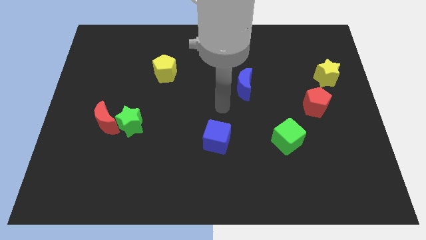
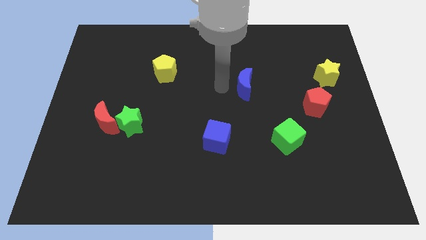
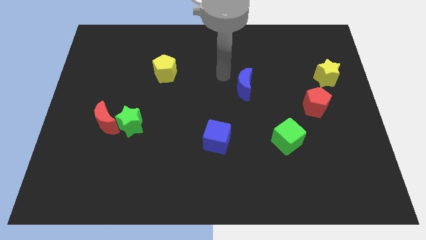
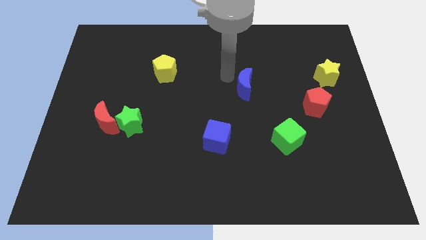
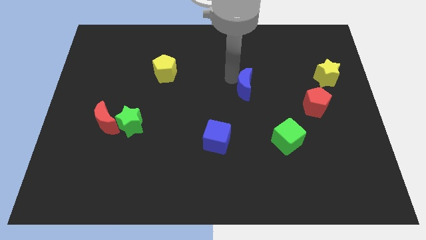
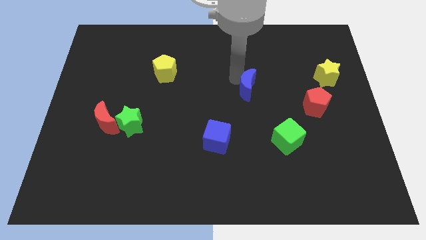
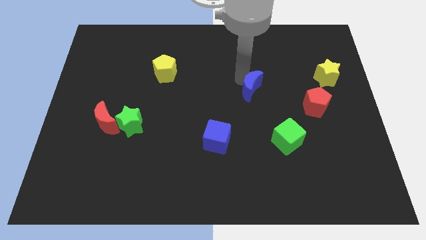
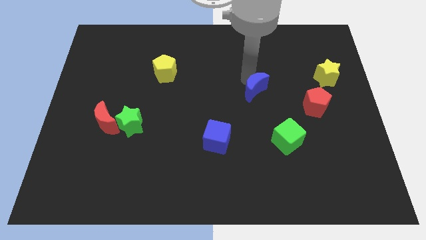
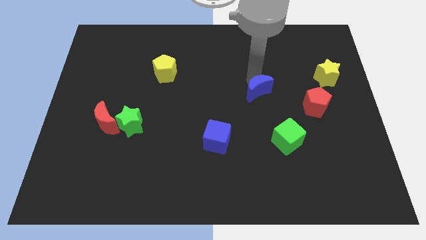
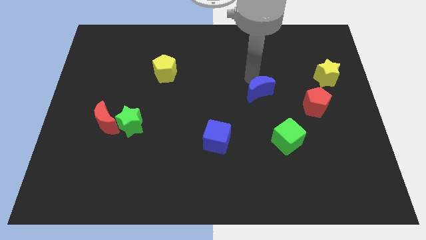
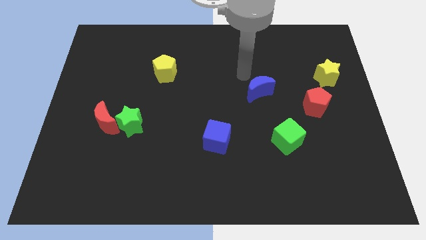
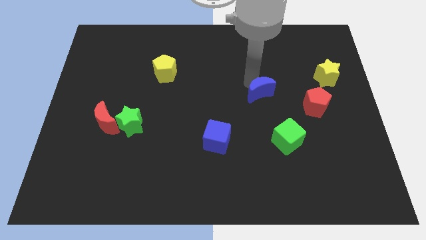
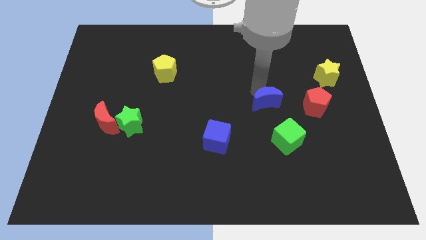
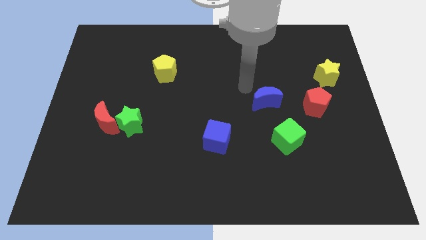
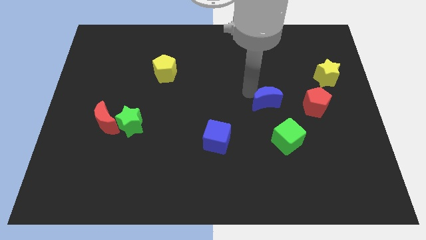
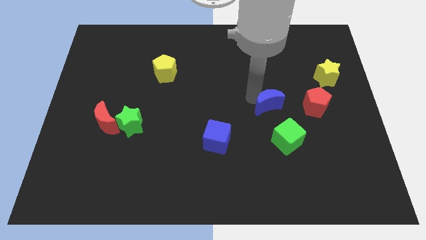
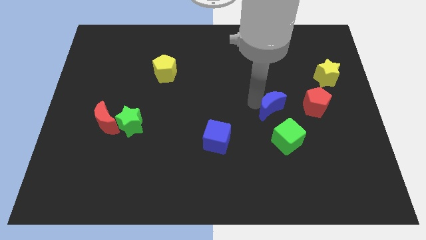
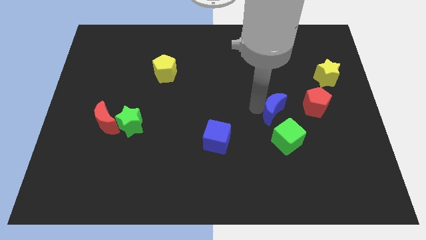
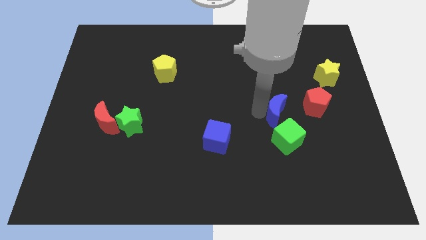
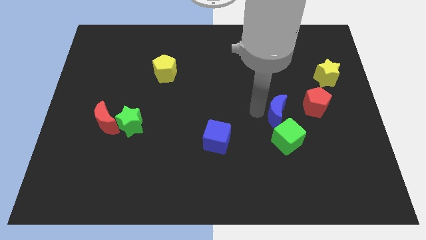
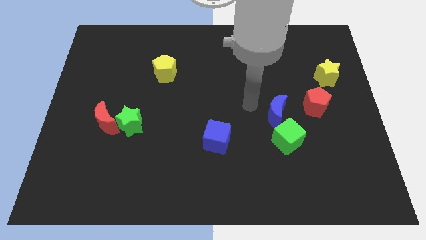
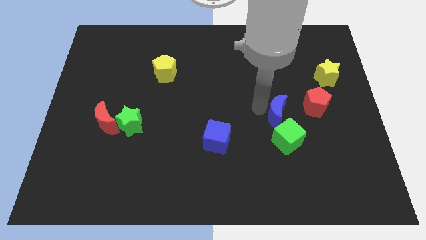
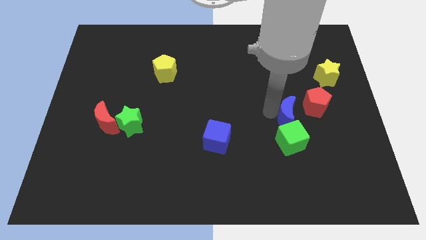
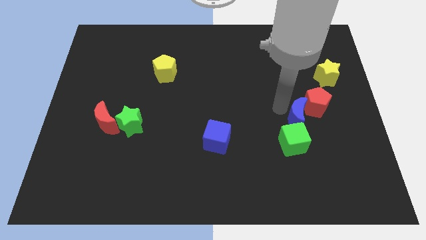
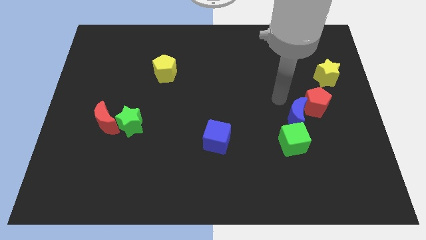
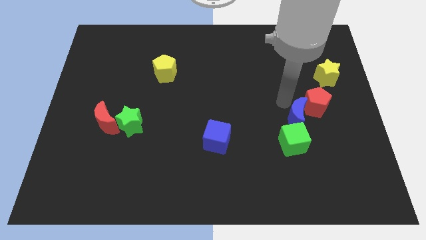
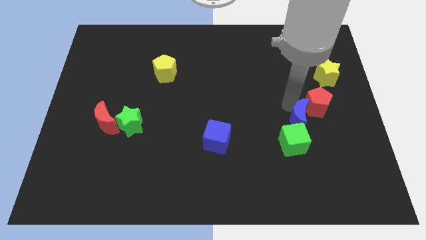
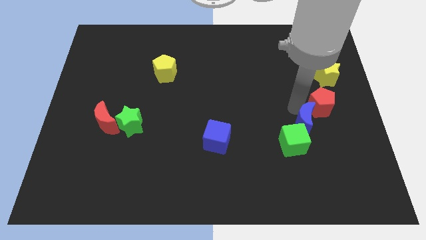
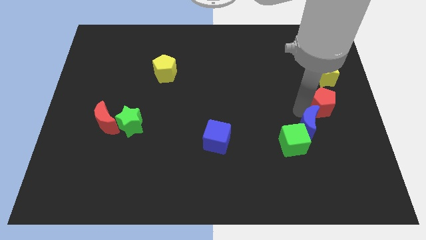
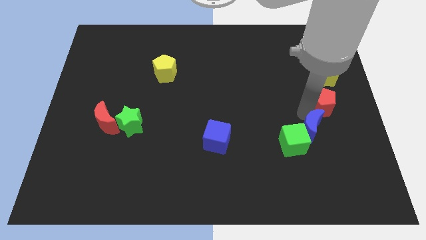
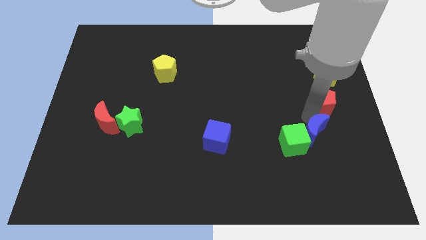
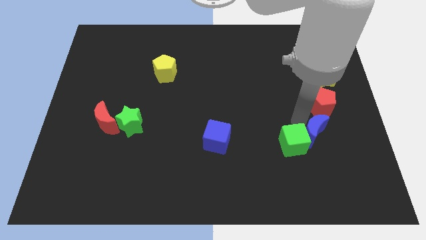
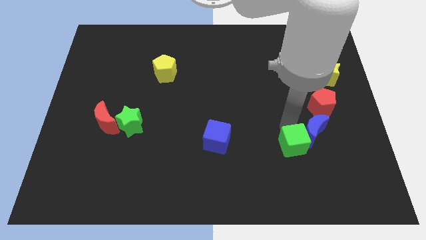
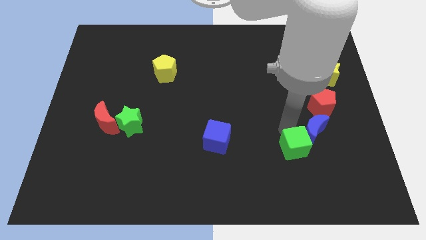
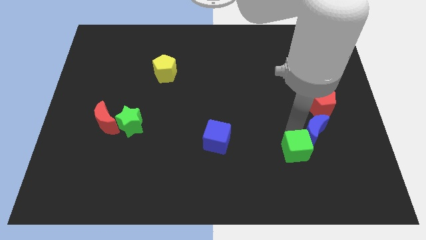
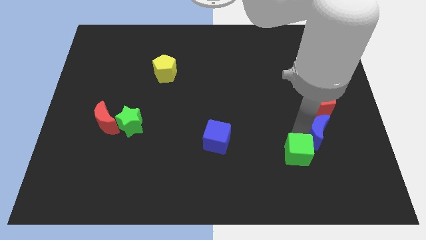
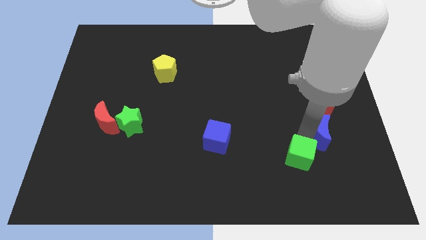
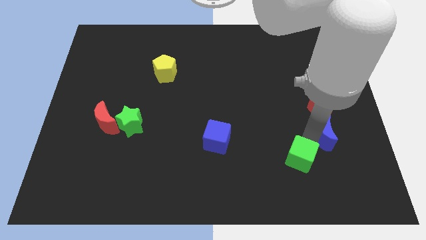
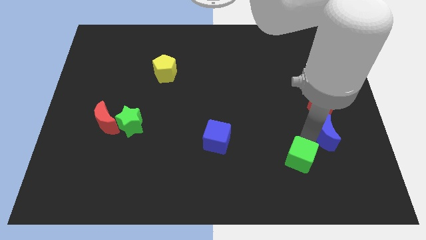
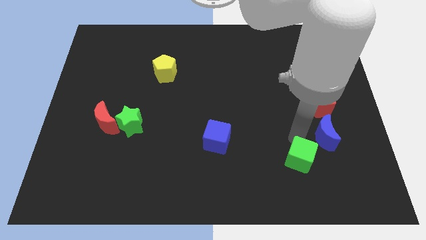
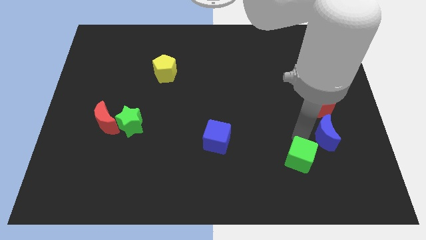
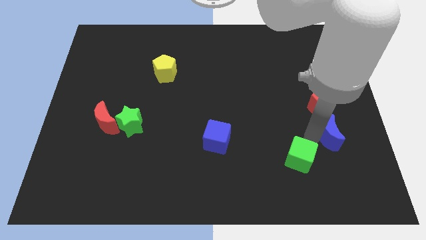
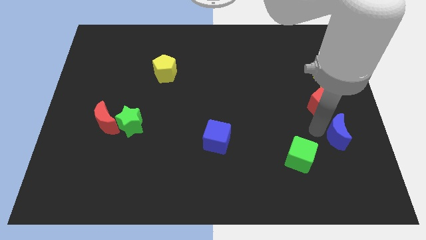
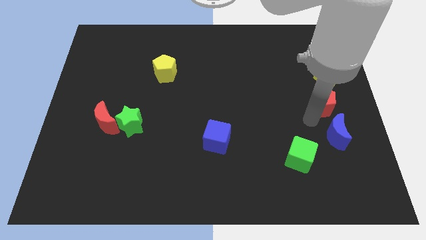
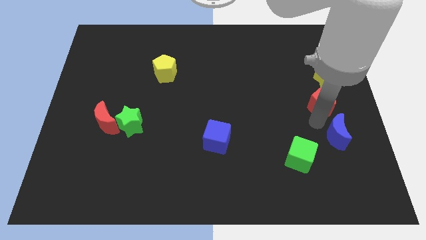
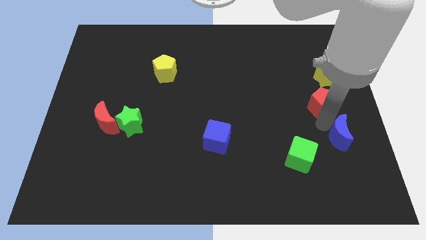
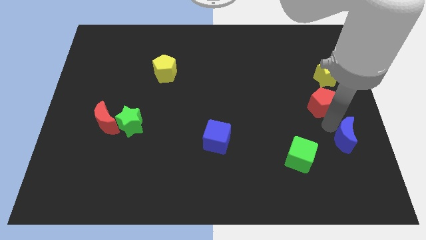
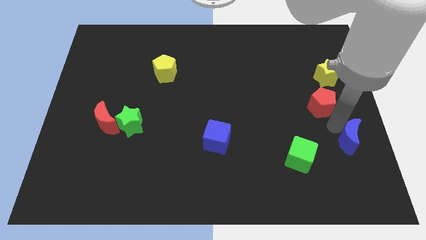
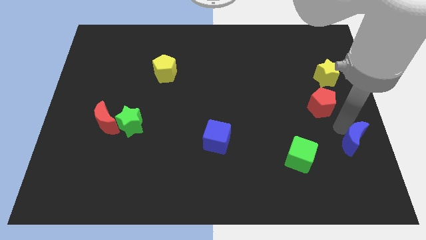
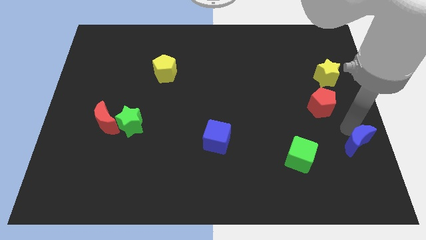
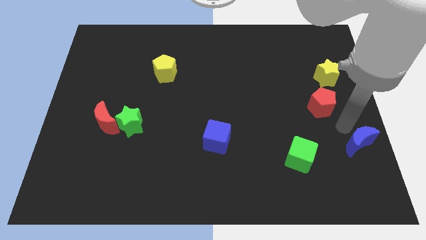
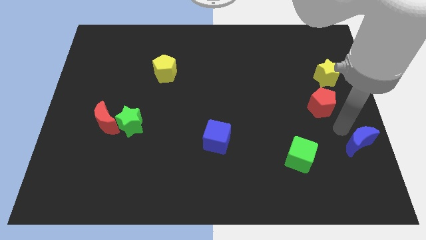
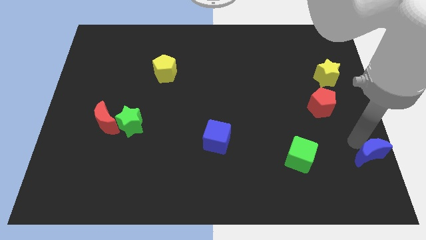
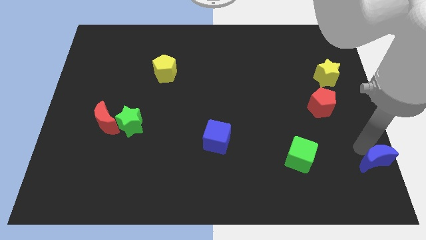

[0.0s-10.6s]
move the blue moon to the lower right corner

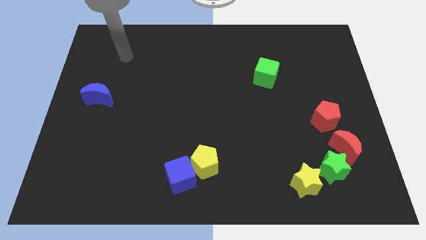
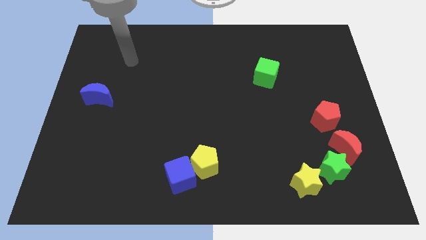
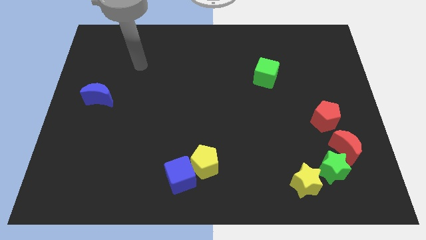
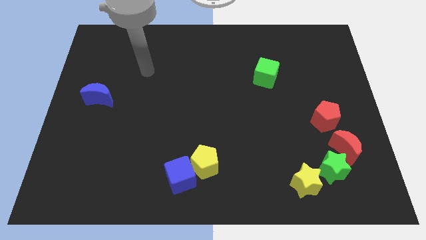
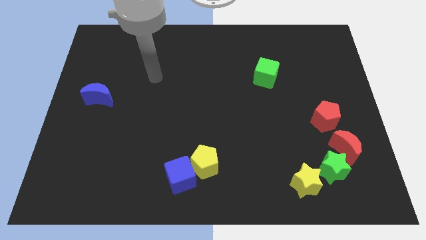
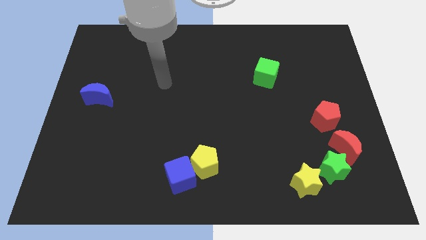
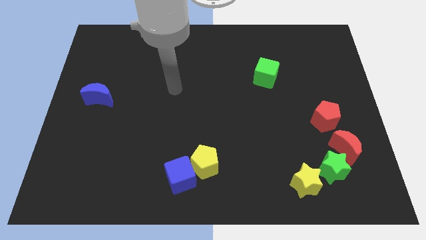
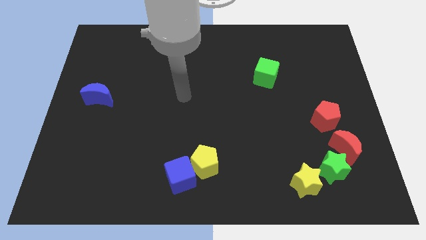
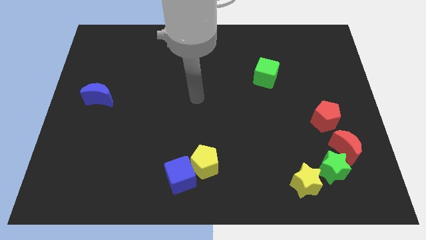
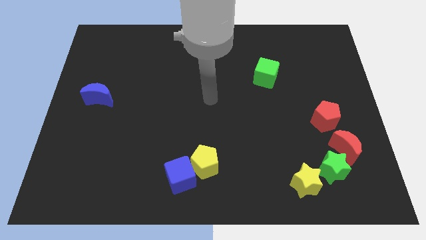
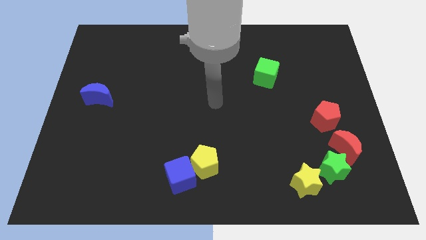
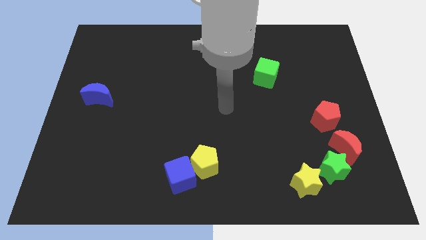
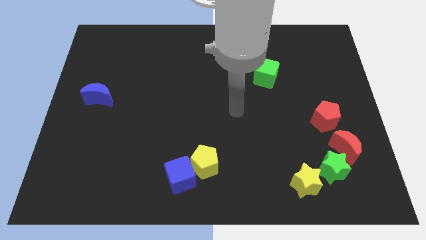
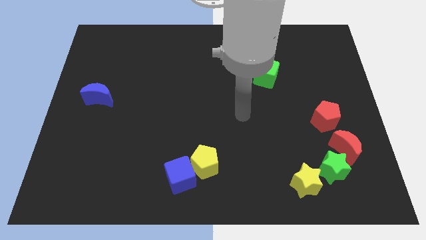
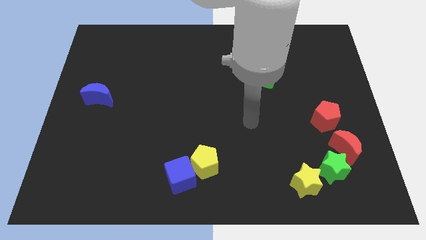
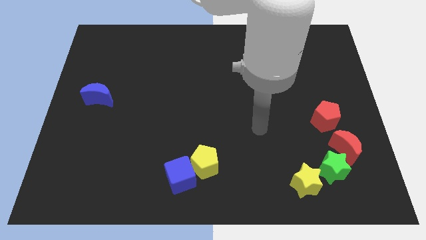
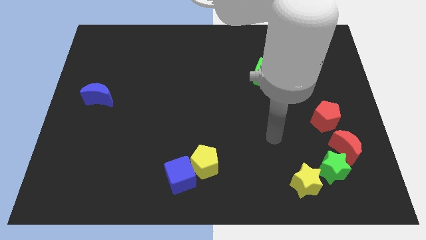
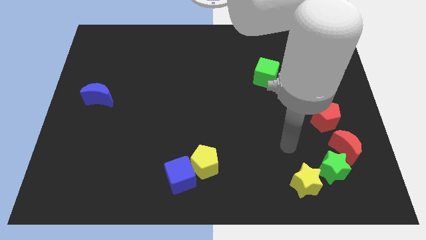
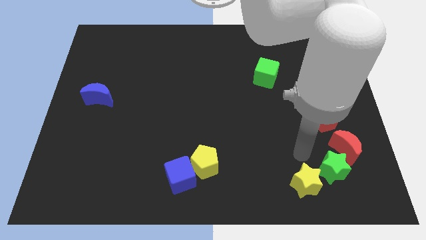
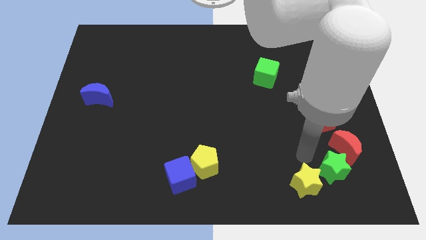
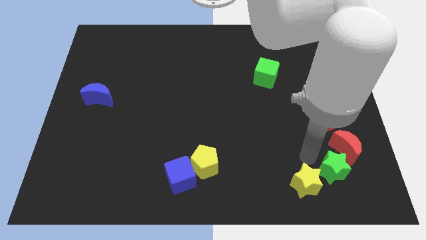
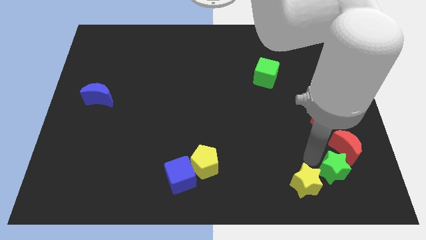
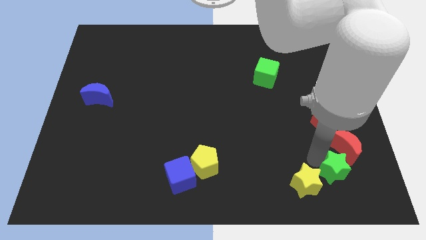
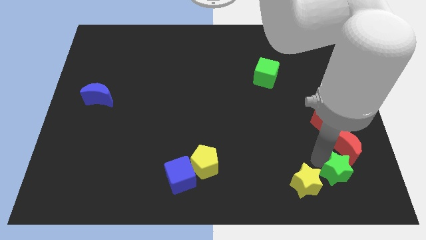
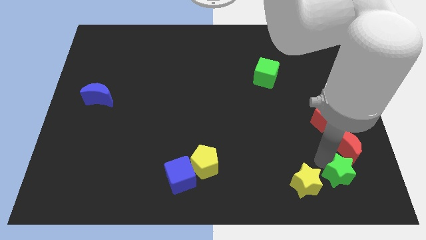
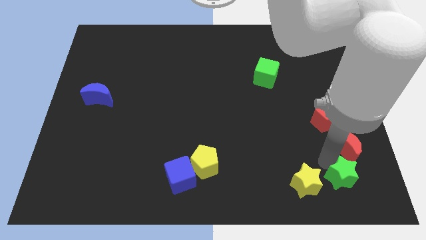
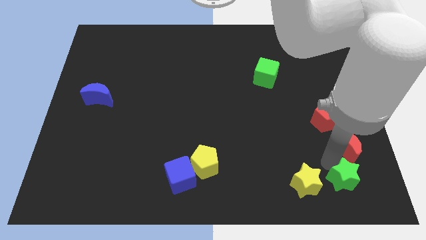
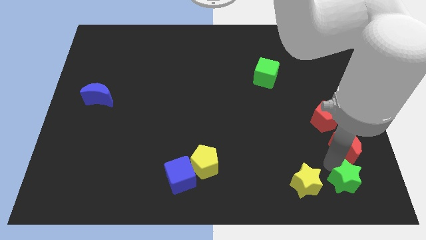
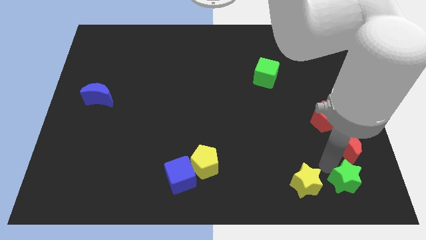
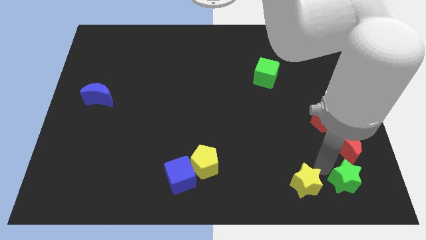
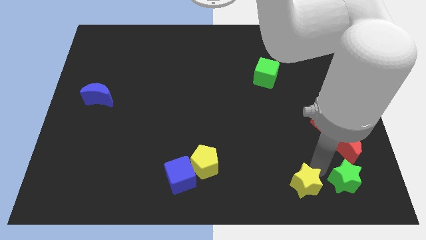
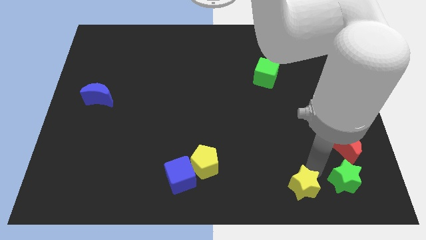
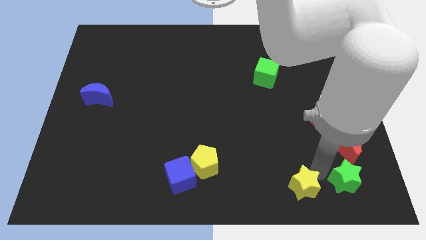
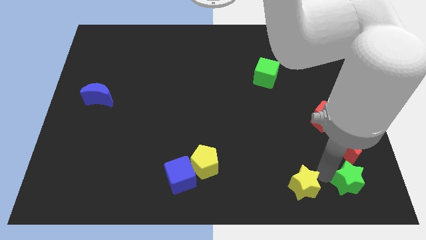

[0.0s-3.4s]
push the green star to the bottom right corner
